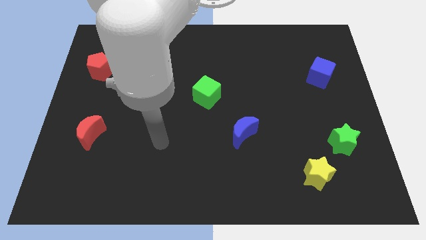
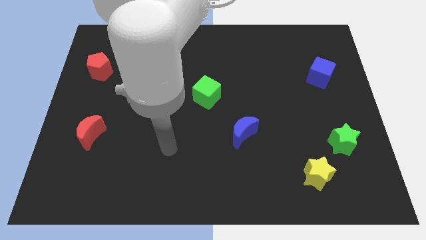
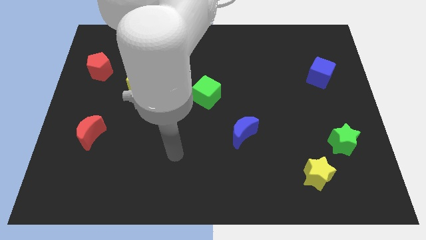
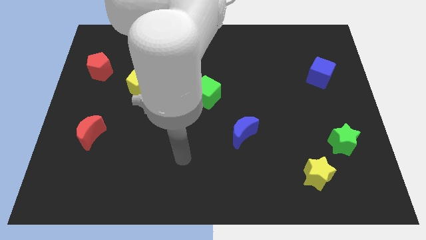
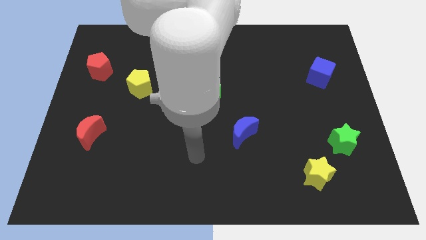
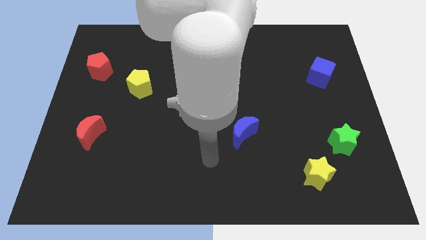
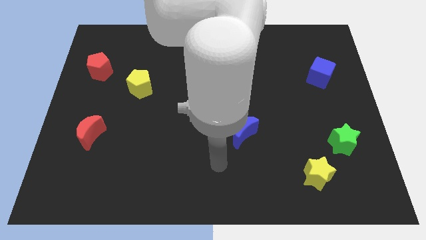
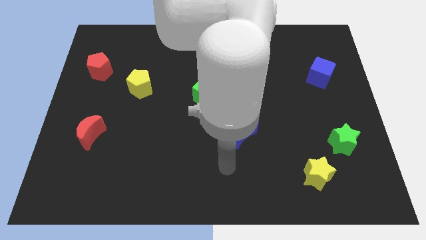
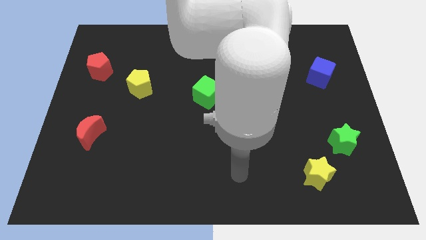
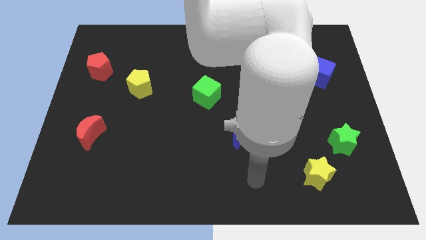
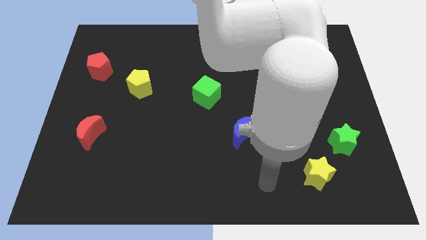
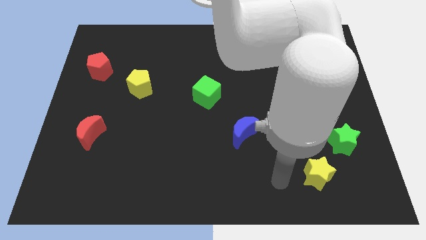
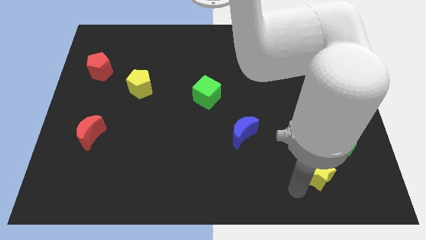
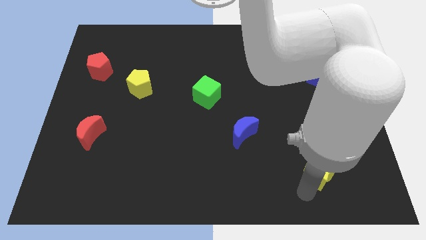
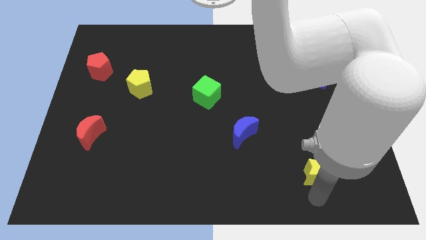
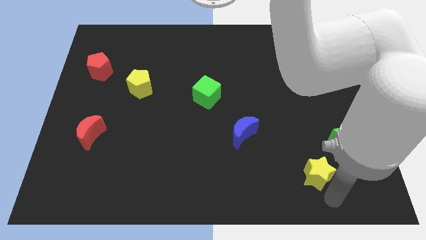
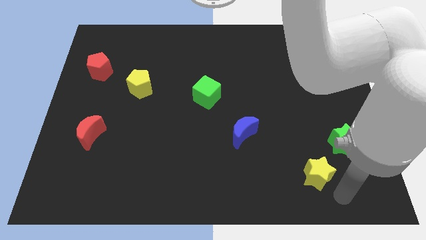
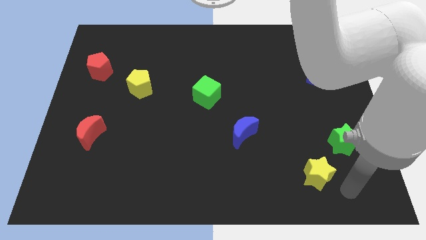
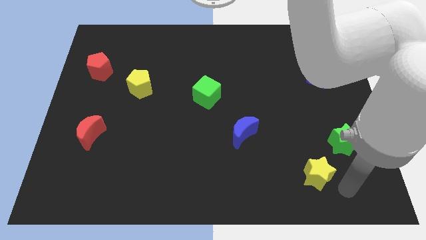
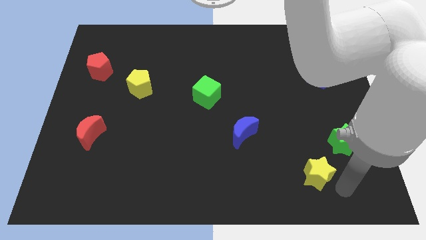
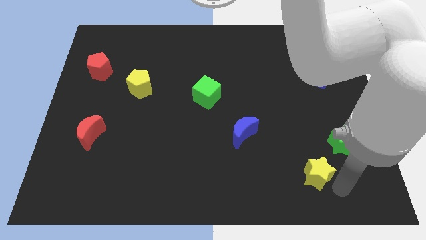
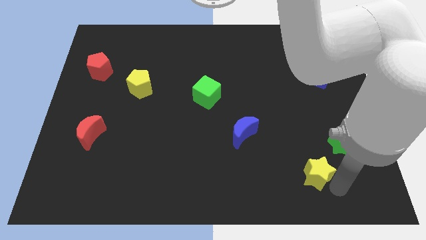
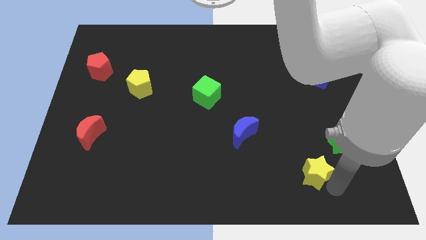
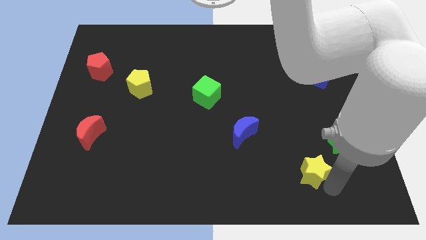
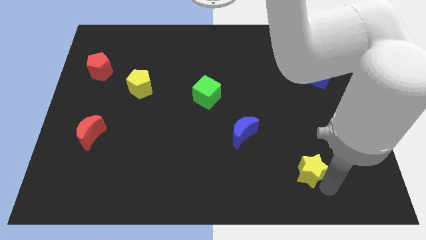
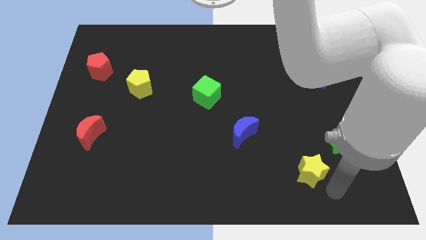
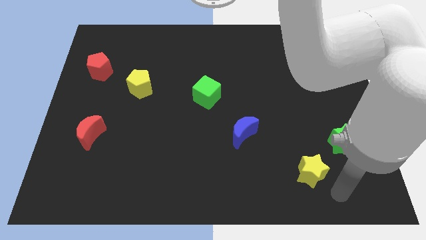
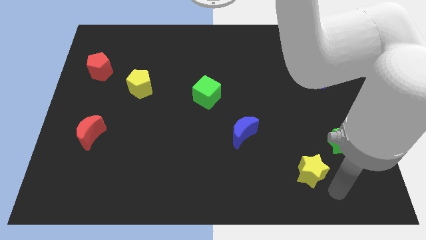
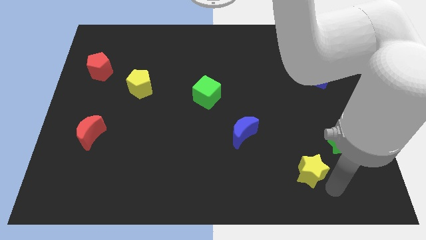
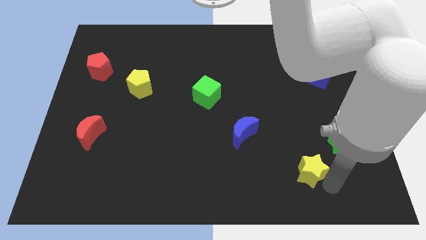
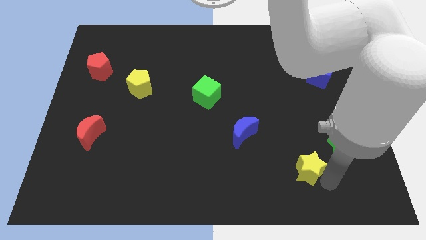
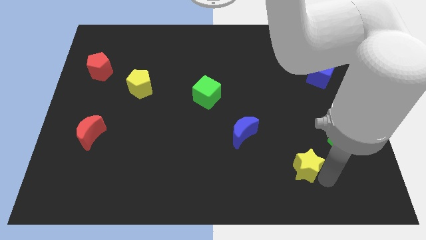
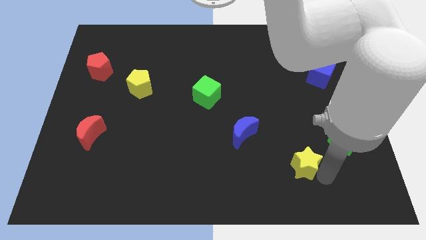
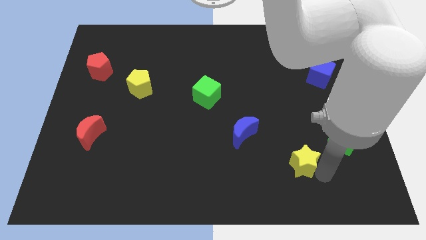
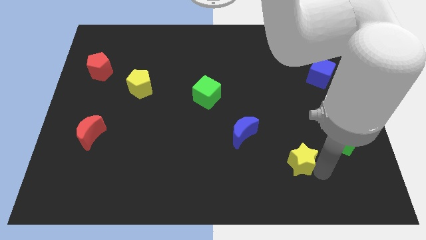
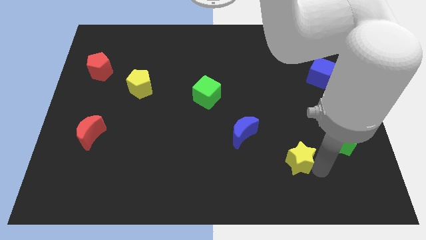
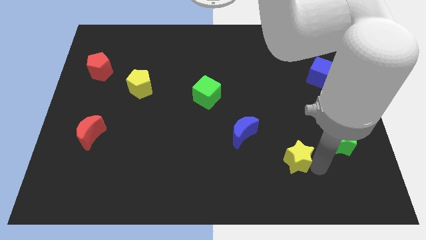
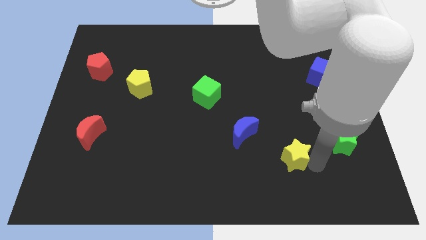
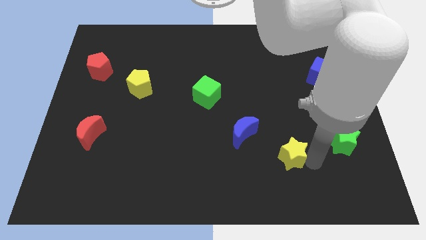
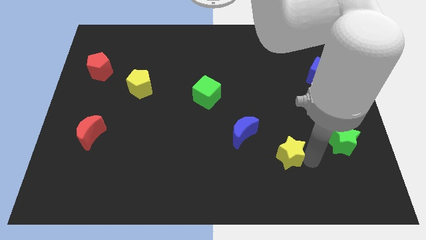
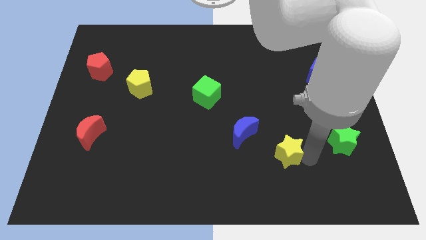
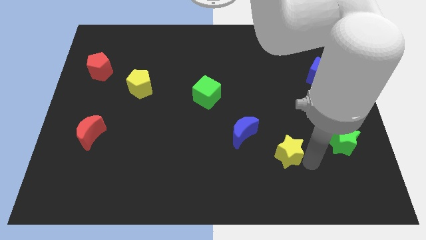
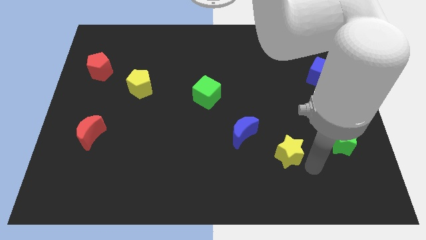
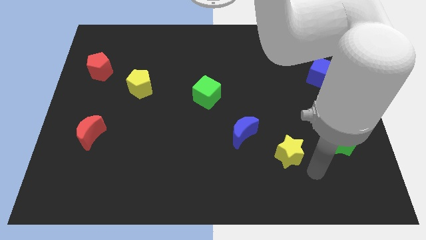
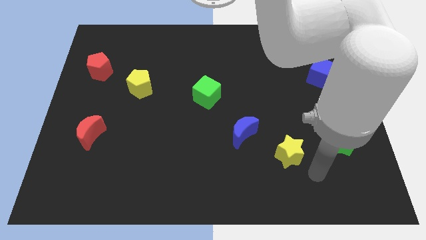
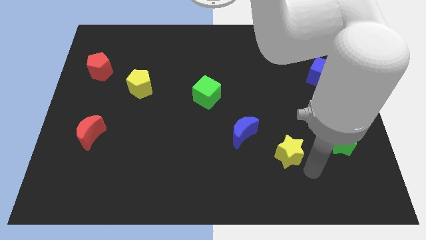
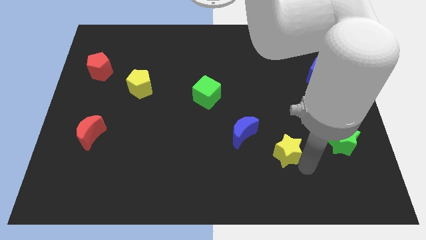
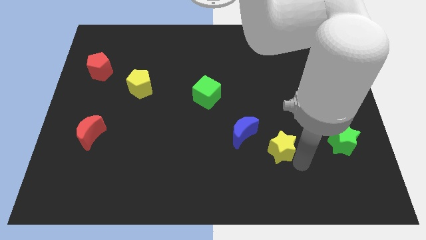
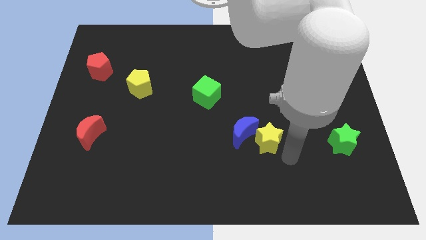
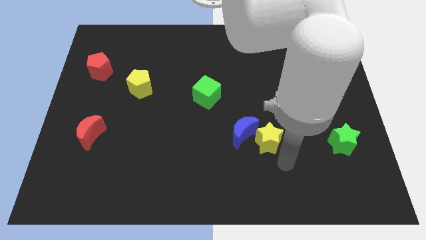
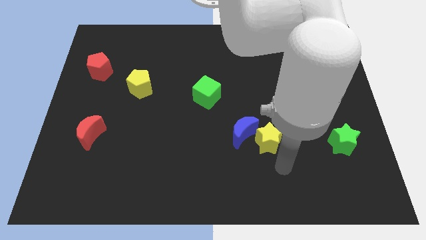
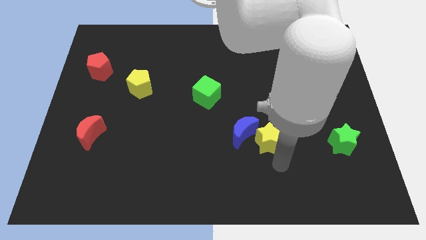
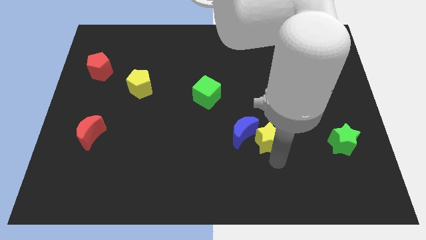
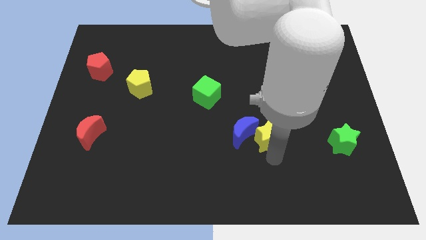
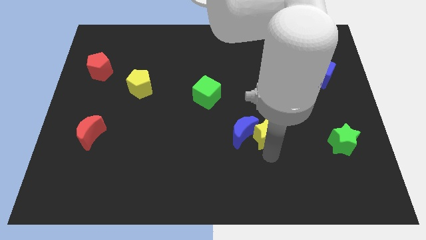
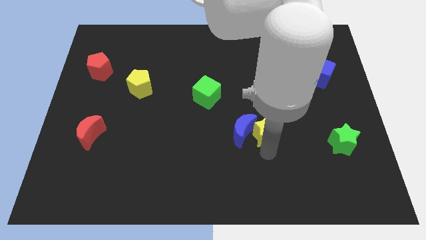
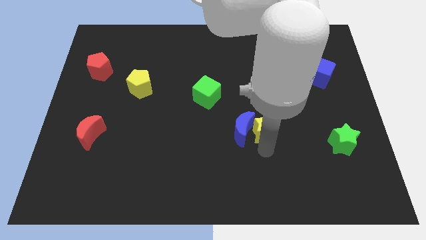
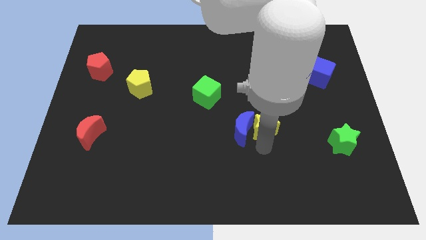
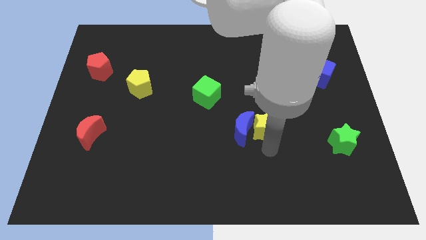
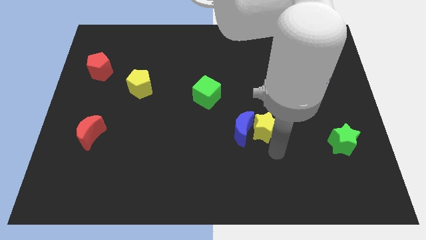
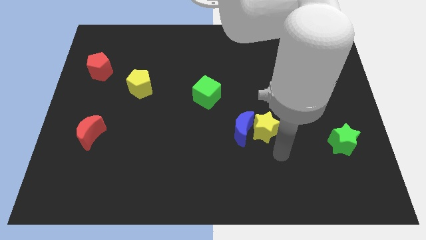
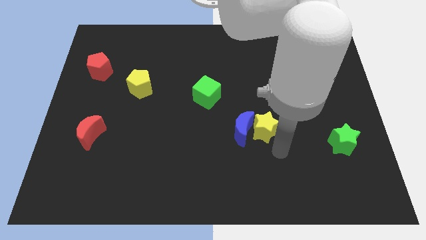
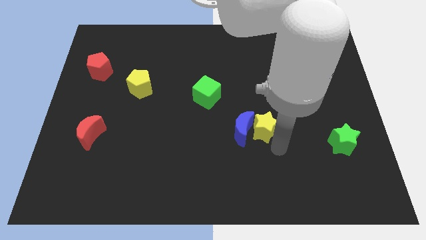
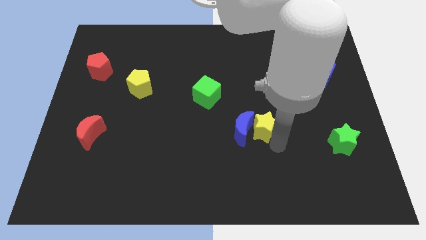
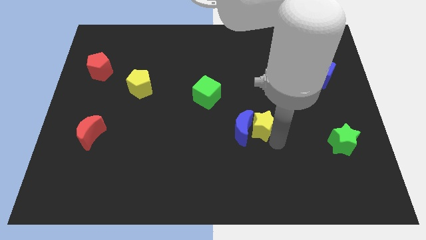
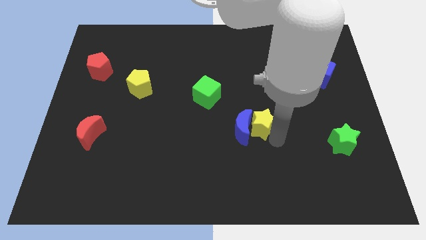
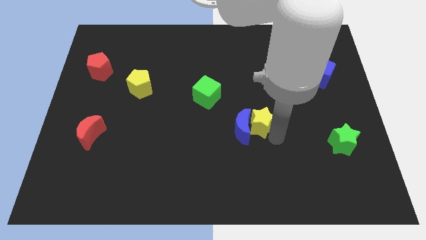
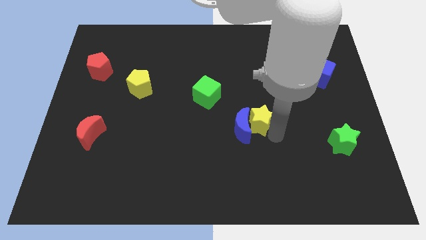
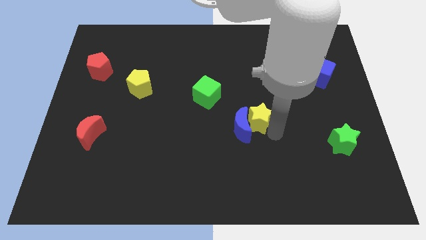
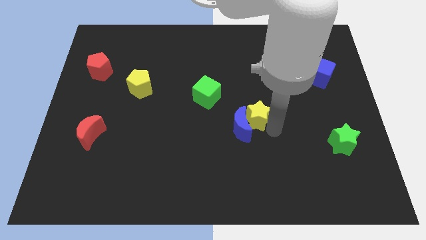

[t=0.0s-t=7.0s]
move the yellow star above the blue moon

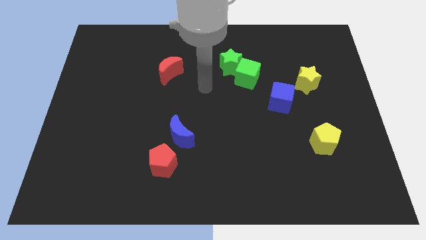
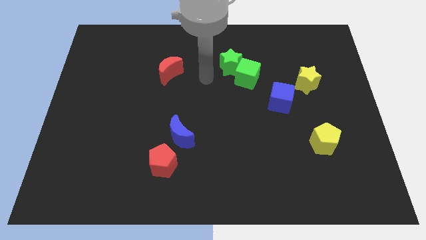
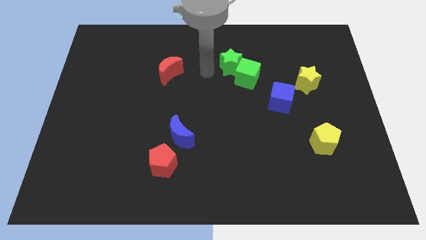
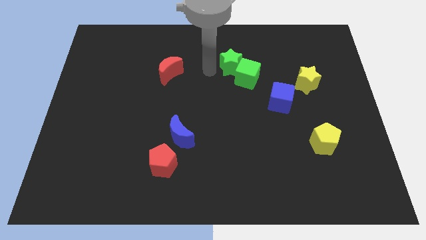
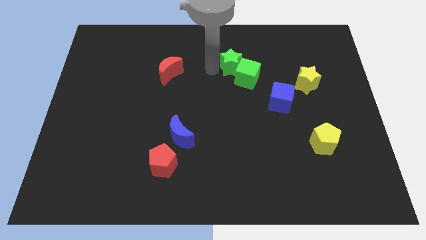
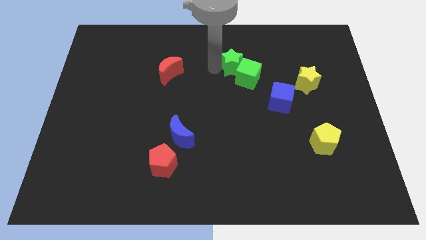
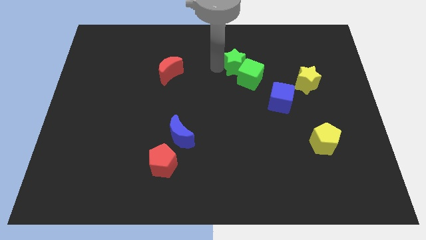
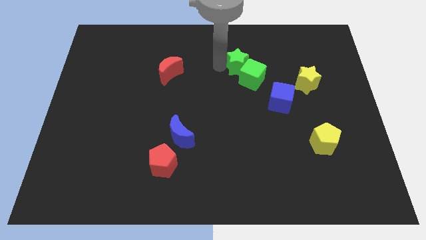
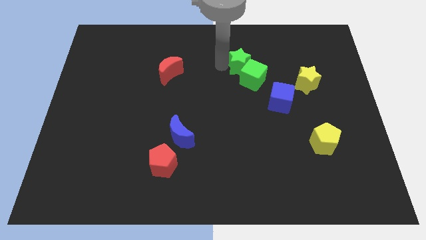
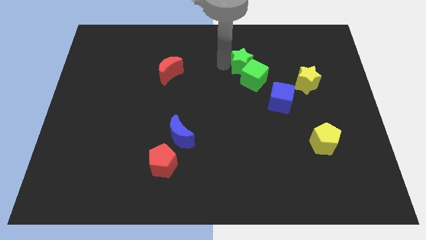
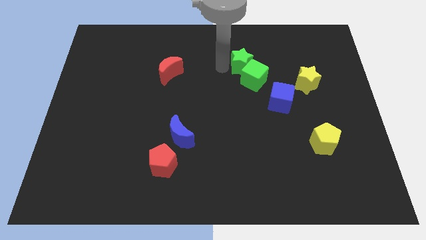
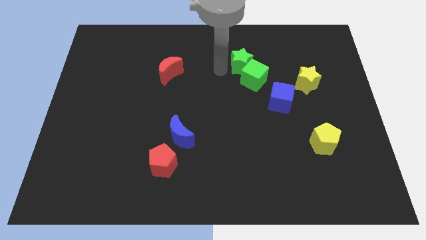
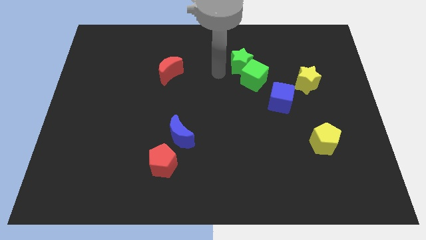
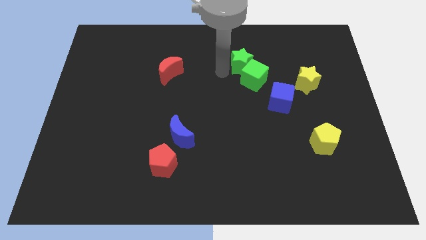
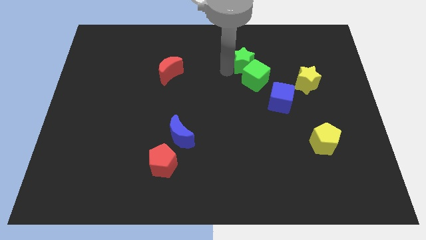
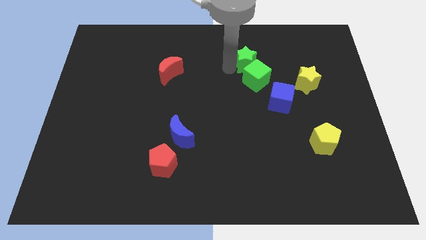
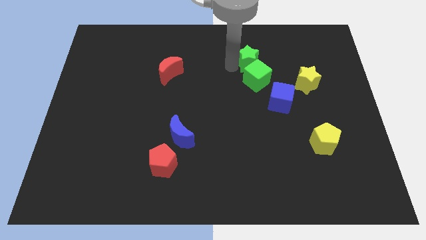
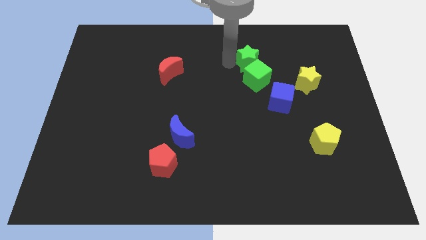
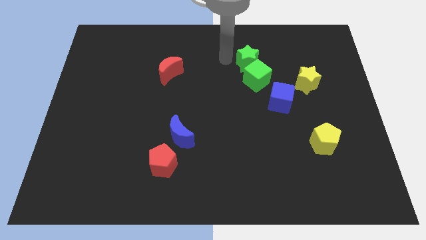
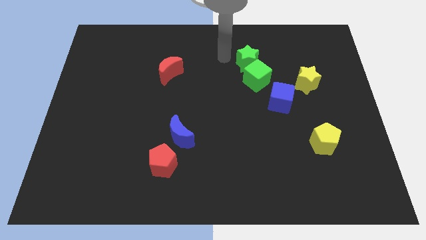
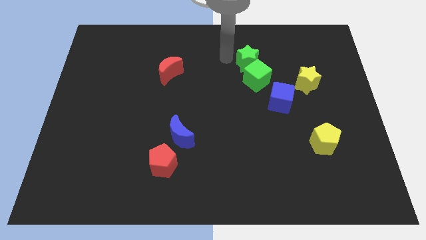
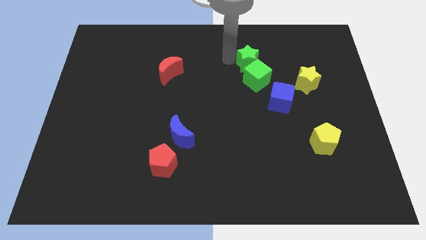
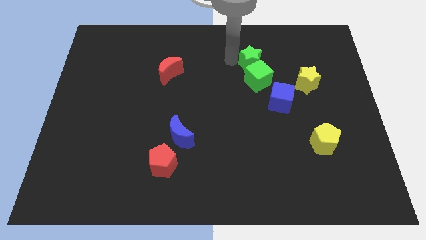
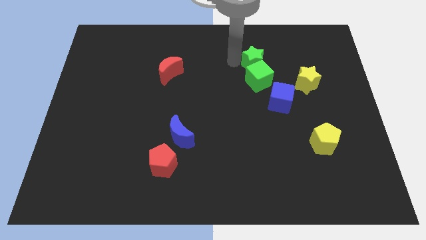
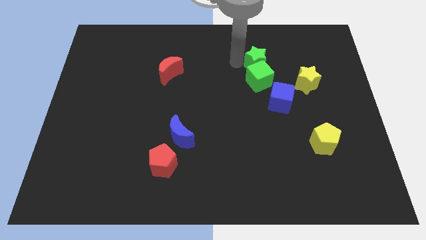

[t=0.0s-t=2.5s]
put the green star to the top side of the blue cube
